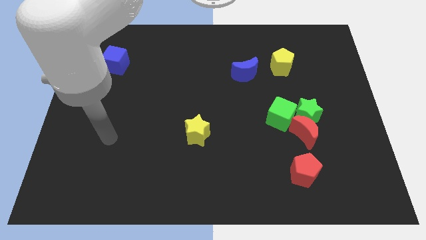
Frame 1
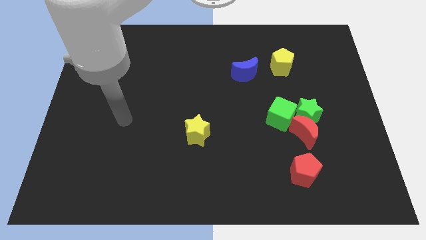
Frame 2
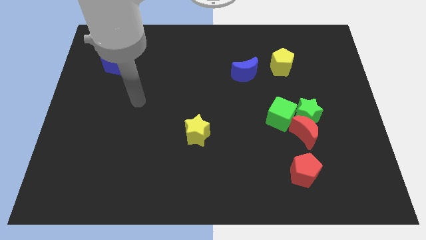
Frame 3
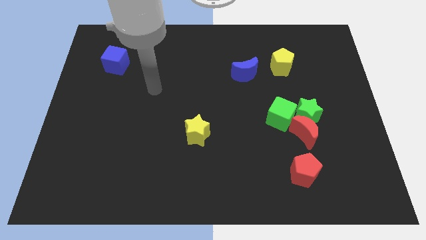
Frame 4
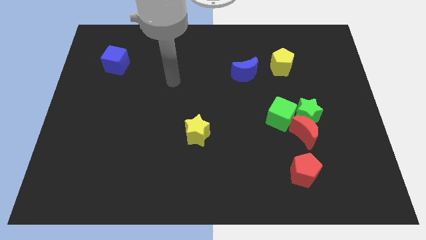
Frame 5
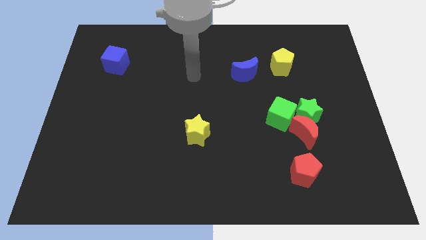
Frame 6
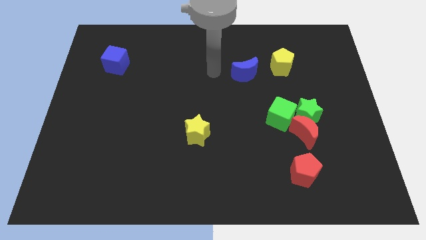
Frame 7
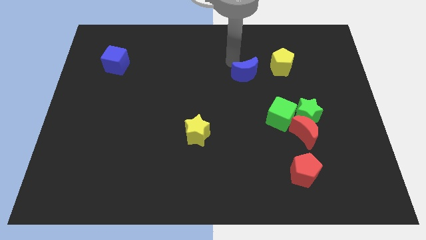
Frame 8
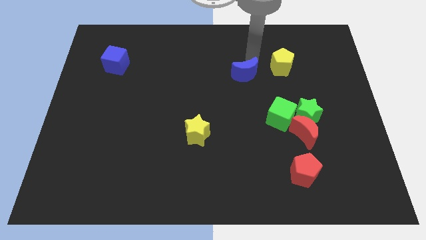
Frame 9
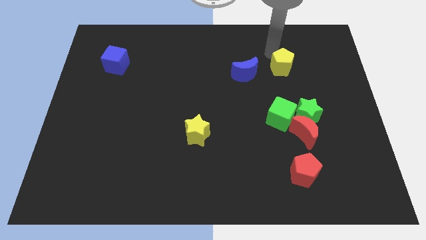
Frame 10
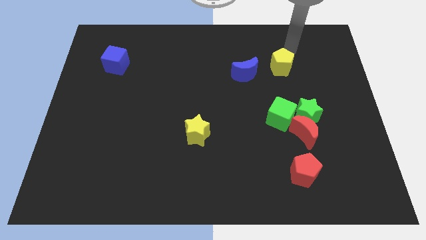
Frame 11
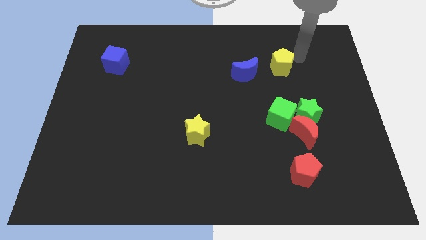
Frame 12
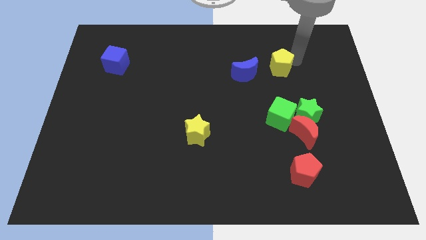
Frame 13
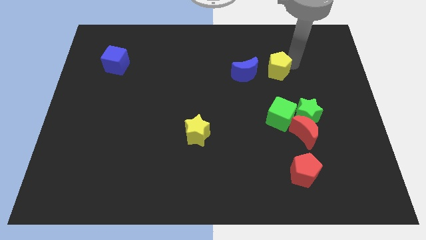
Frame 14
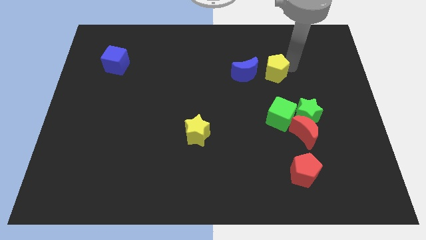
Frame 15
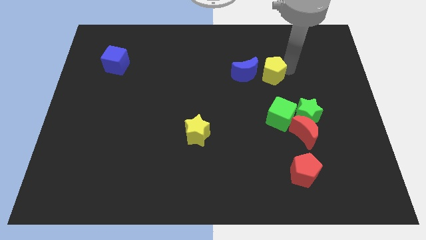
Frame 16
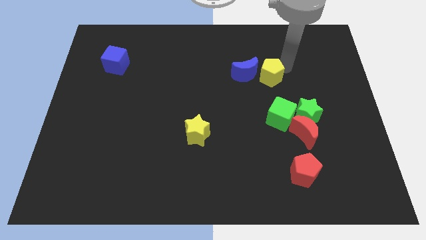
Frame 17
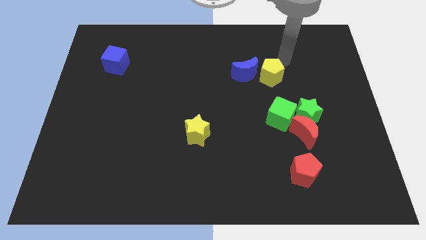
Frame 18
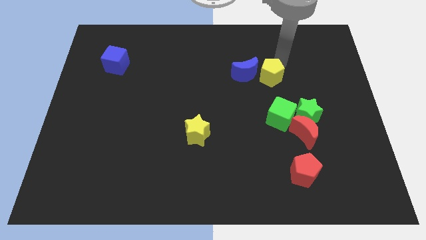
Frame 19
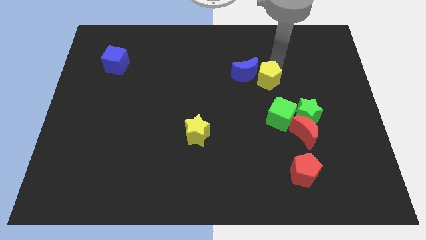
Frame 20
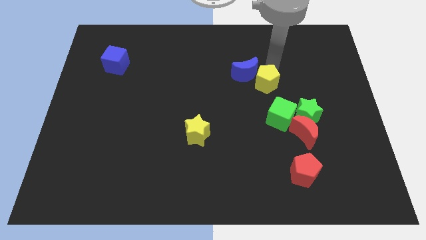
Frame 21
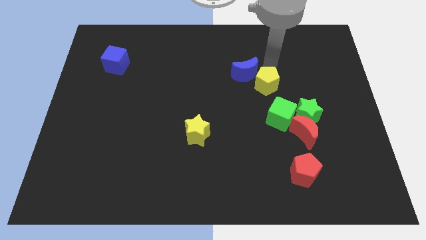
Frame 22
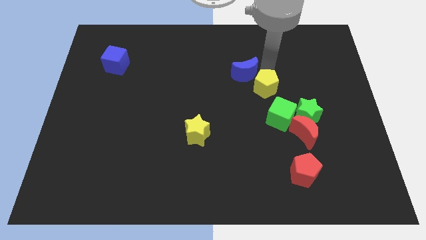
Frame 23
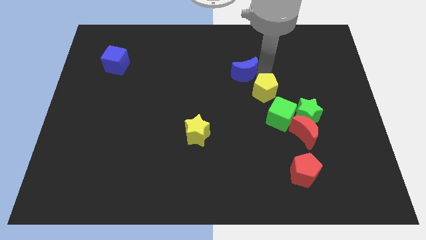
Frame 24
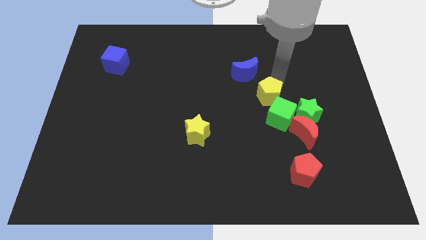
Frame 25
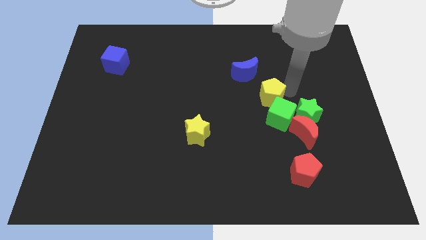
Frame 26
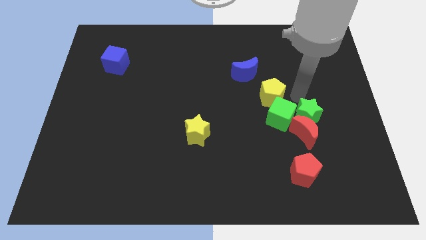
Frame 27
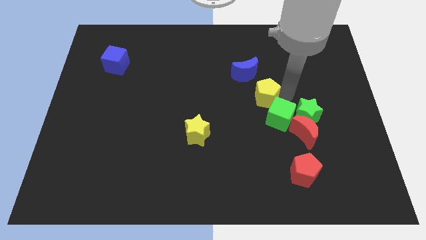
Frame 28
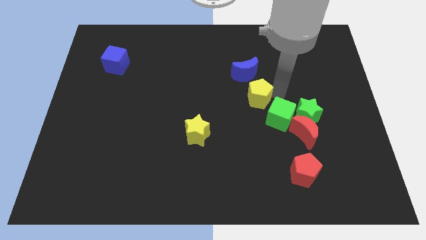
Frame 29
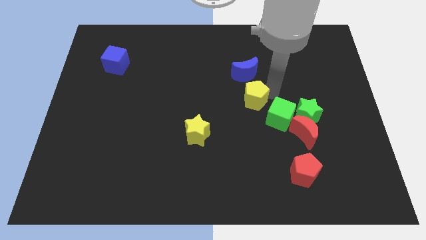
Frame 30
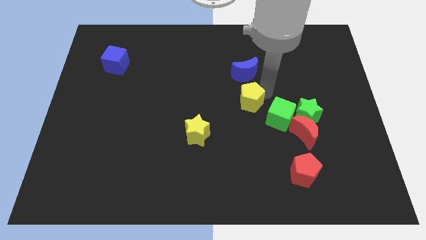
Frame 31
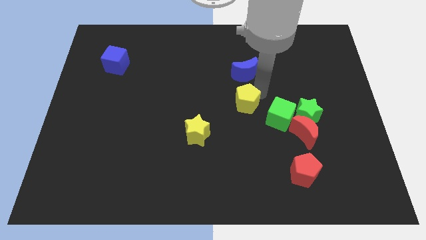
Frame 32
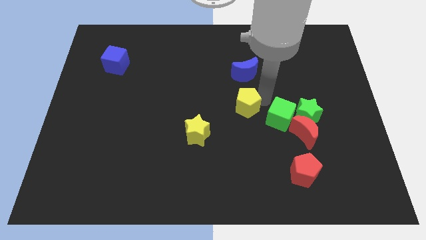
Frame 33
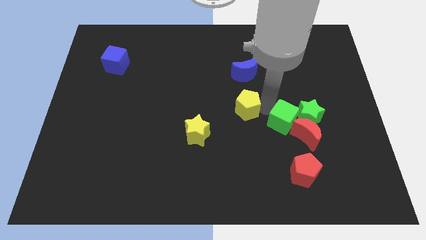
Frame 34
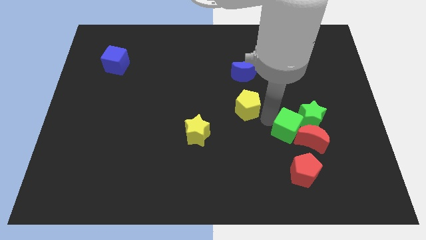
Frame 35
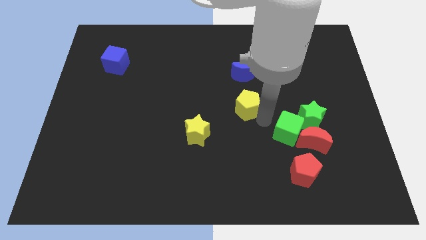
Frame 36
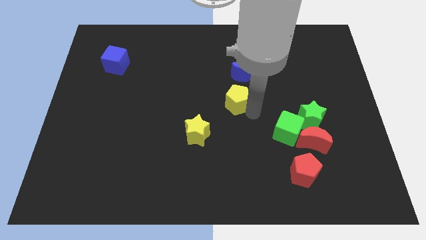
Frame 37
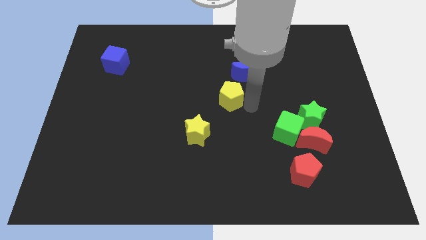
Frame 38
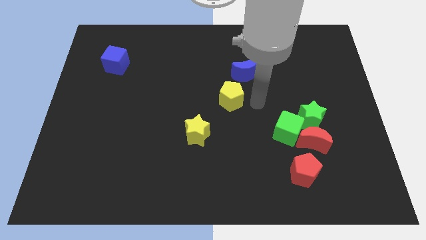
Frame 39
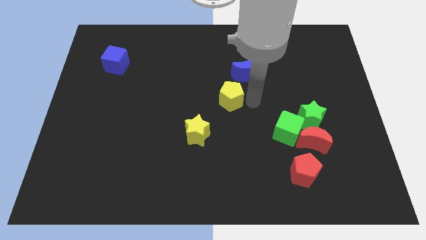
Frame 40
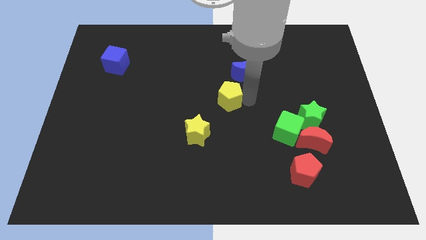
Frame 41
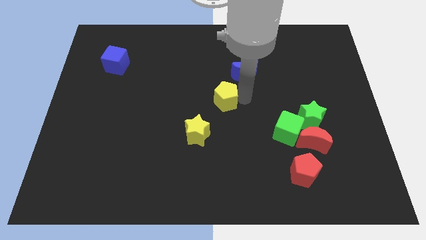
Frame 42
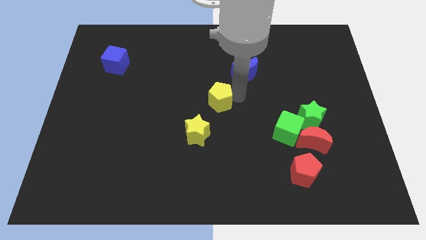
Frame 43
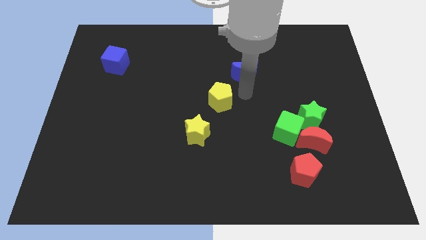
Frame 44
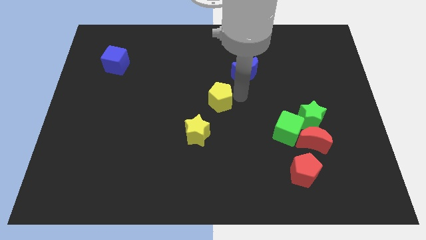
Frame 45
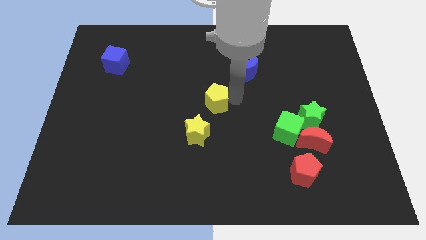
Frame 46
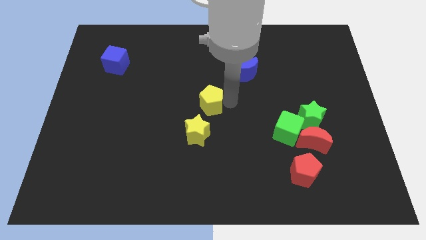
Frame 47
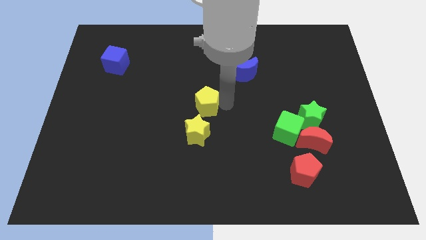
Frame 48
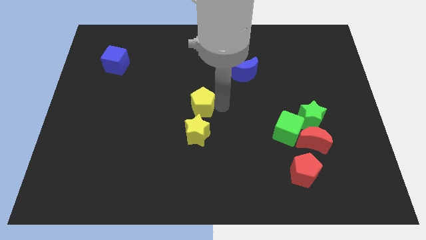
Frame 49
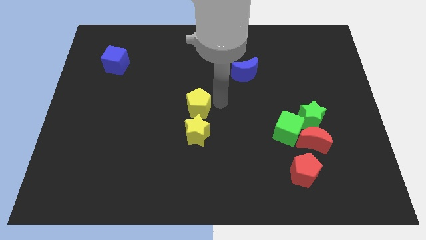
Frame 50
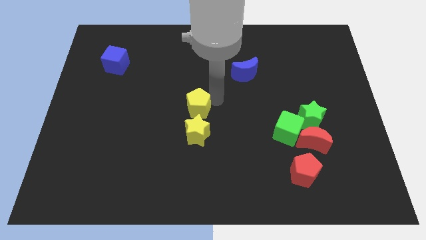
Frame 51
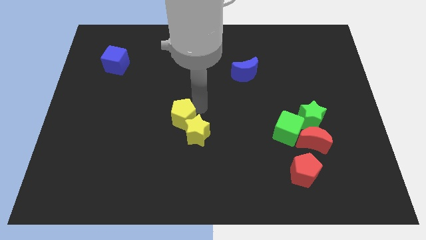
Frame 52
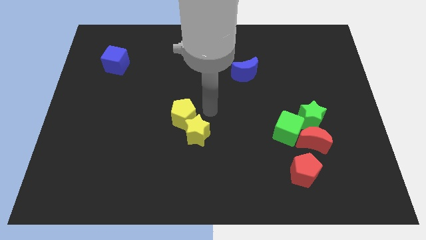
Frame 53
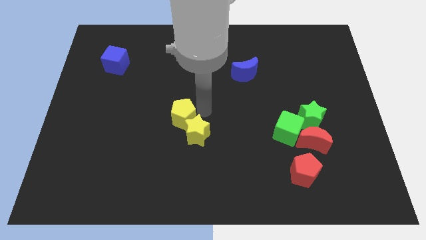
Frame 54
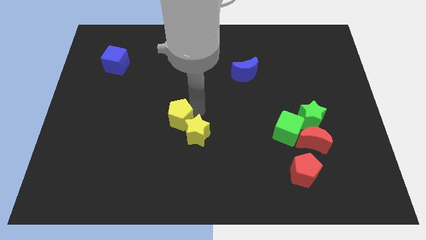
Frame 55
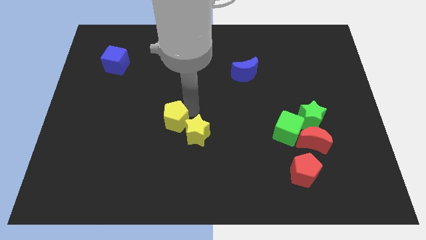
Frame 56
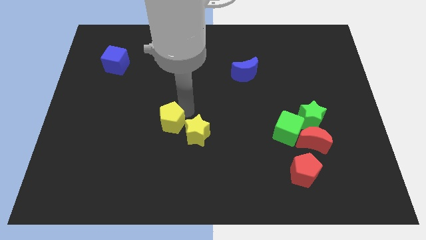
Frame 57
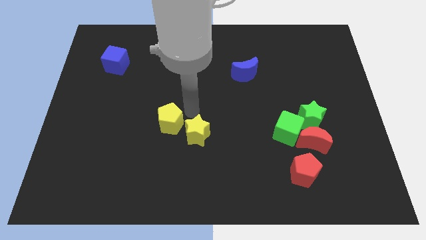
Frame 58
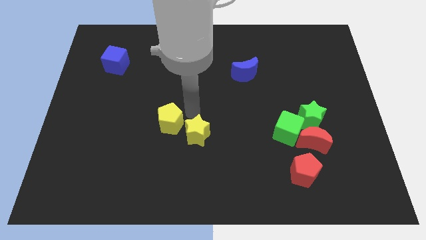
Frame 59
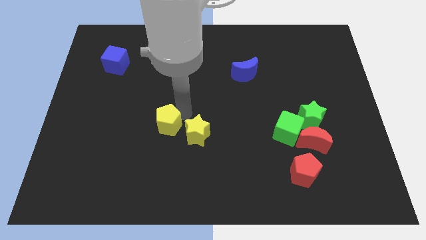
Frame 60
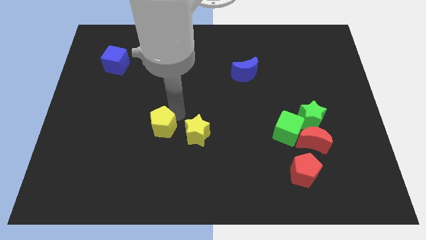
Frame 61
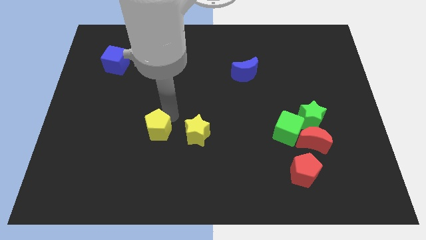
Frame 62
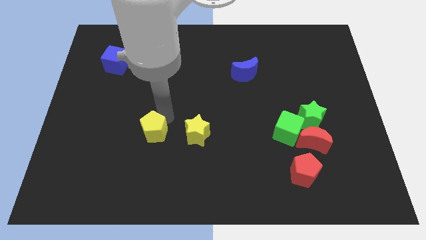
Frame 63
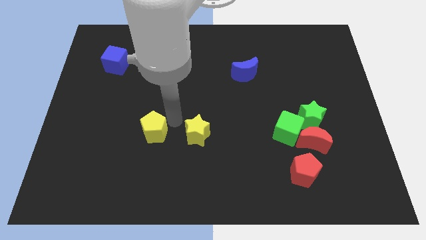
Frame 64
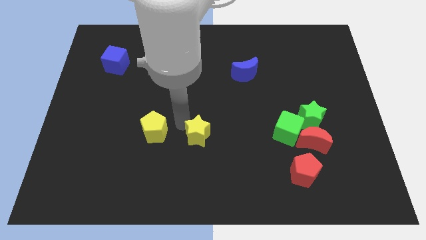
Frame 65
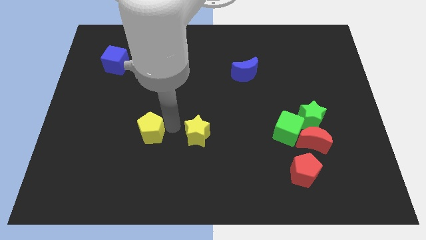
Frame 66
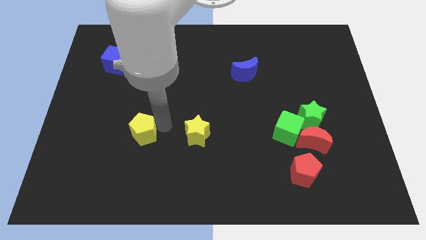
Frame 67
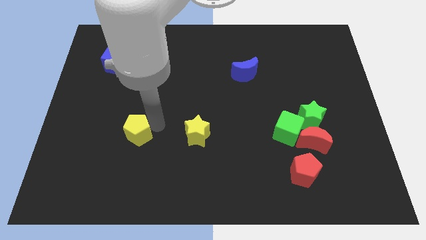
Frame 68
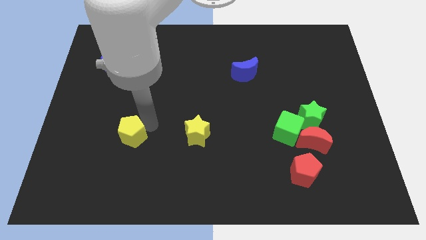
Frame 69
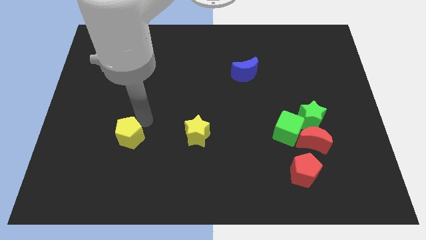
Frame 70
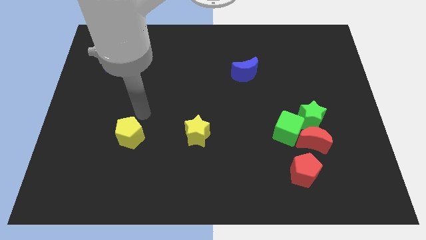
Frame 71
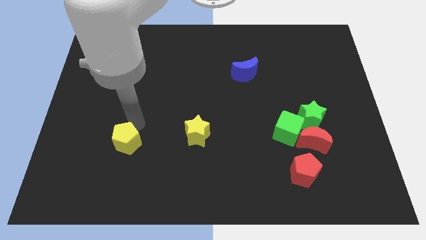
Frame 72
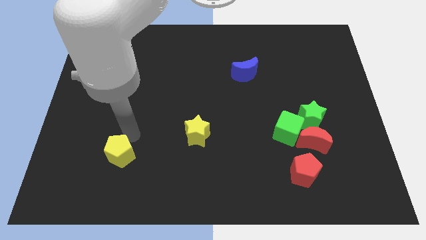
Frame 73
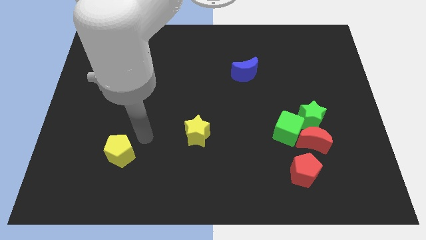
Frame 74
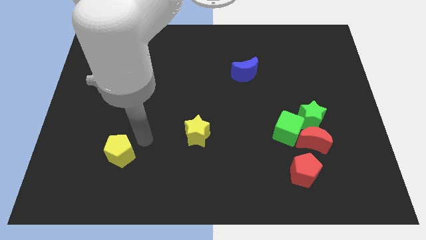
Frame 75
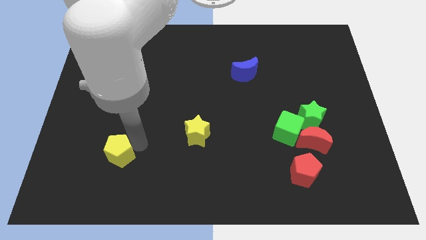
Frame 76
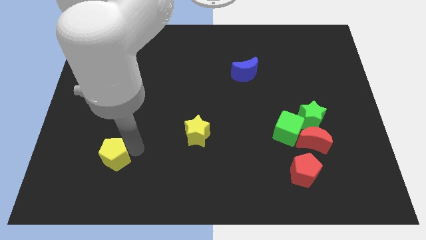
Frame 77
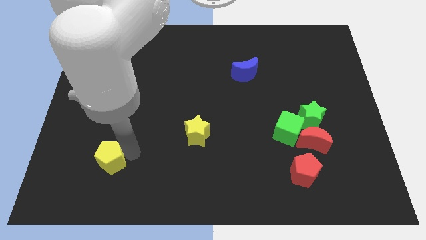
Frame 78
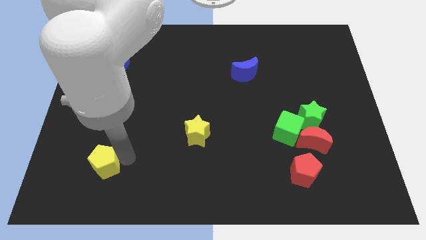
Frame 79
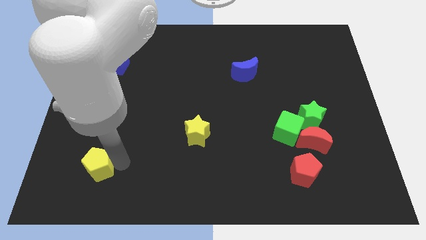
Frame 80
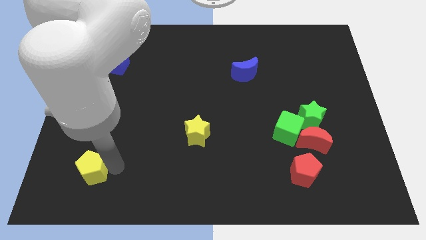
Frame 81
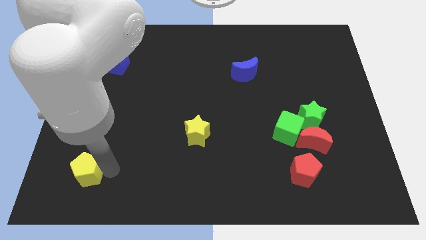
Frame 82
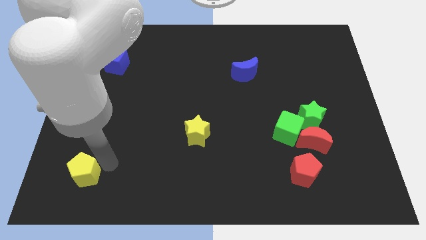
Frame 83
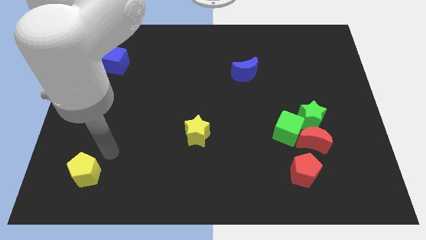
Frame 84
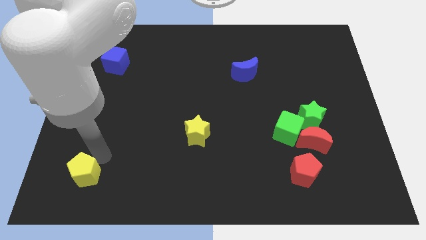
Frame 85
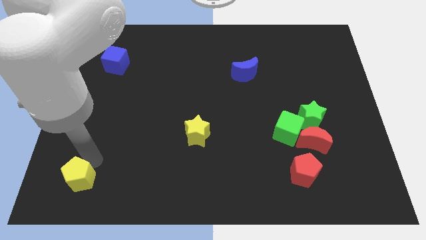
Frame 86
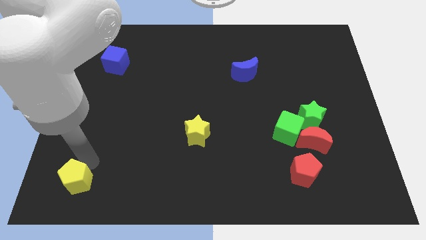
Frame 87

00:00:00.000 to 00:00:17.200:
slide the yellow pentagon to the lower left corner
